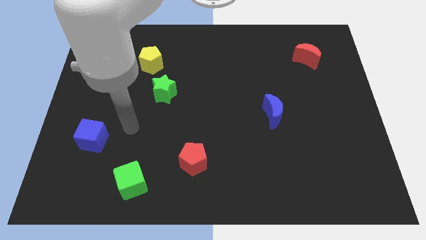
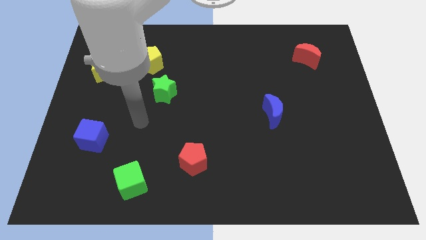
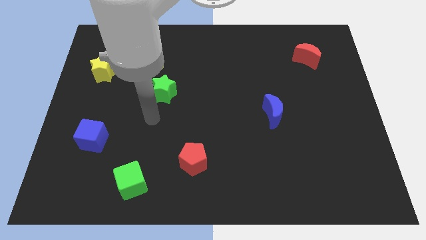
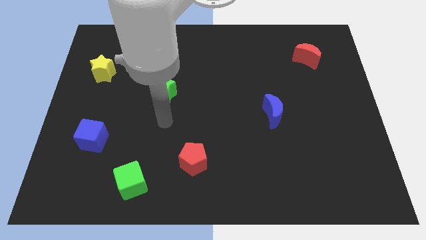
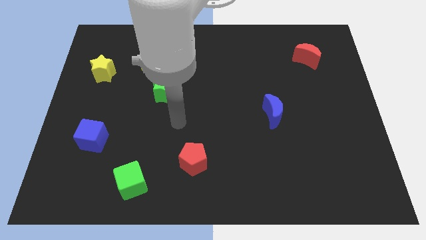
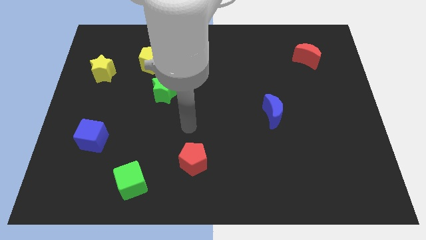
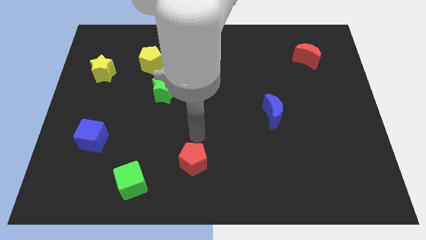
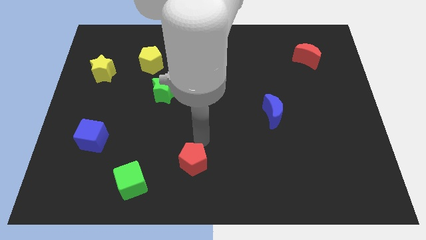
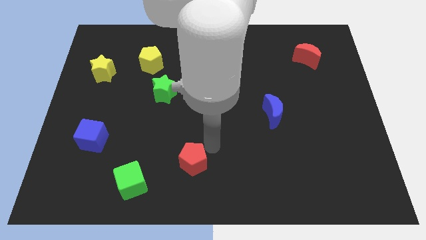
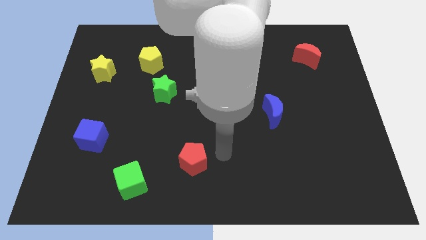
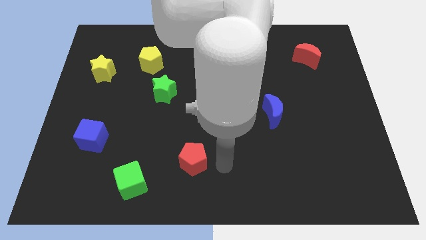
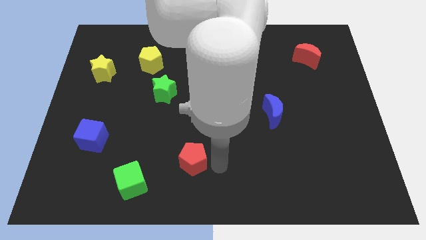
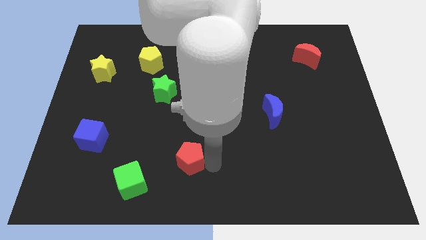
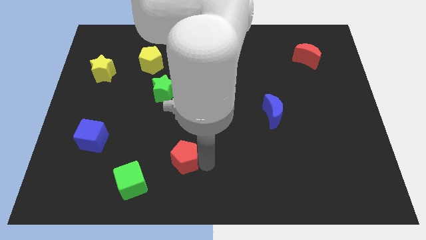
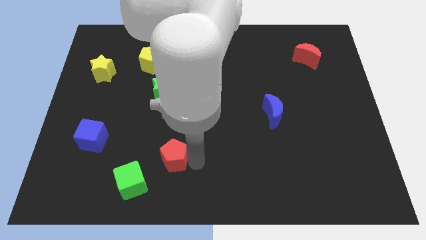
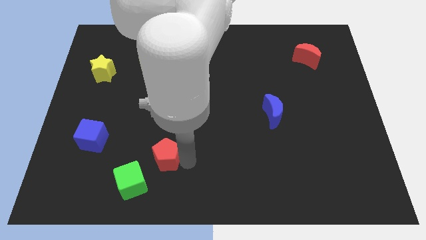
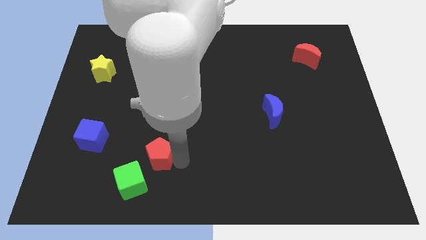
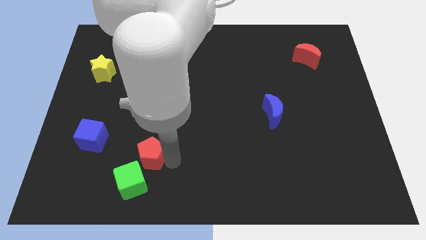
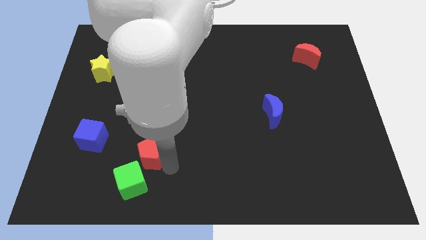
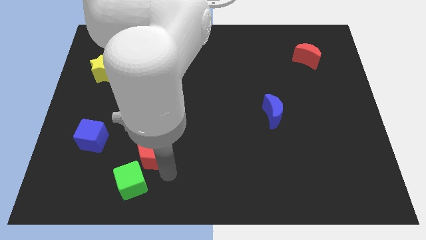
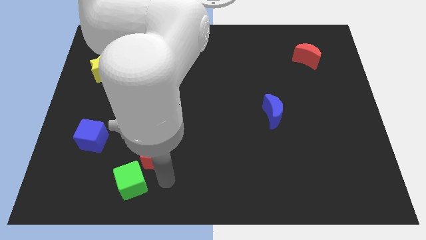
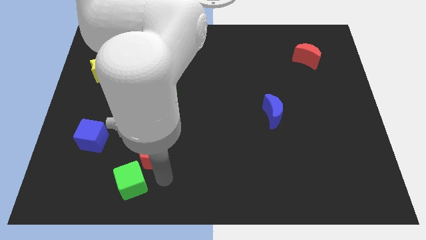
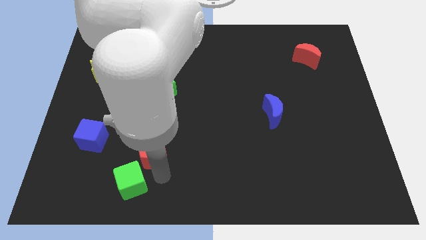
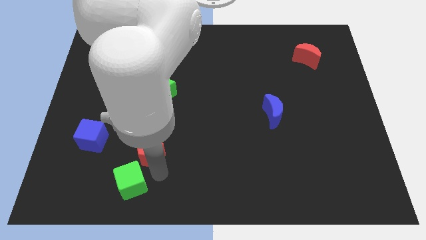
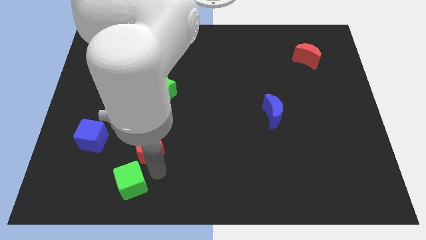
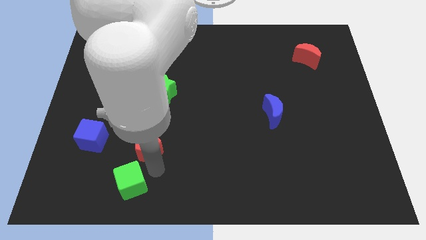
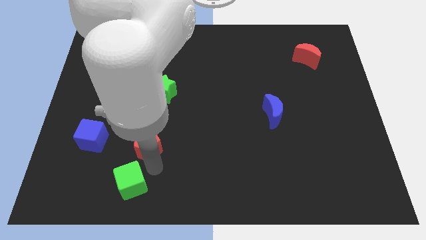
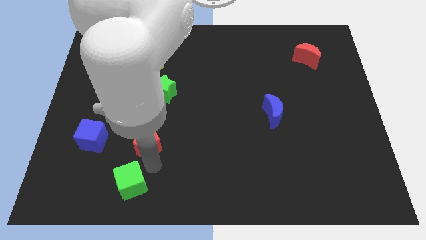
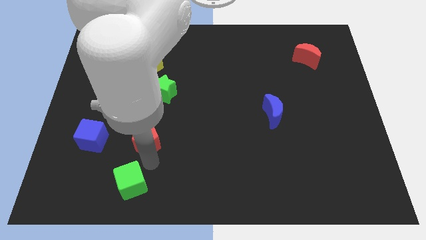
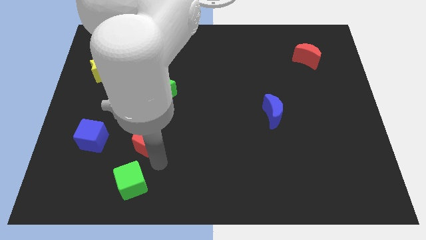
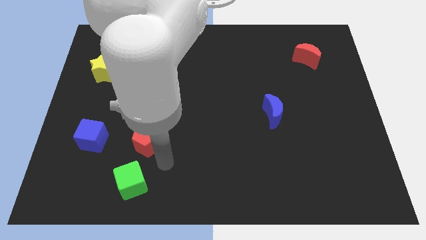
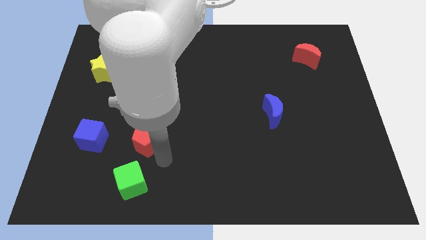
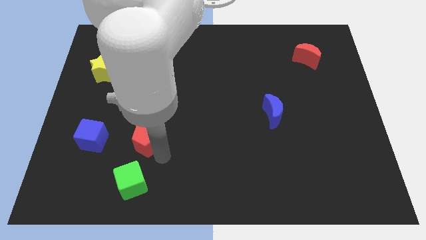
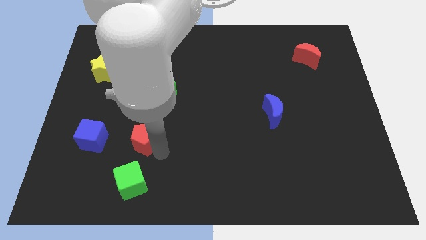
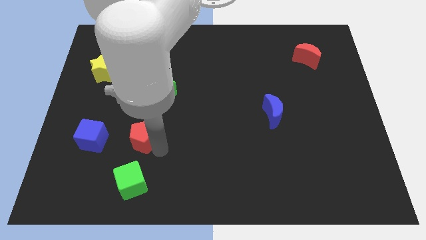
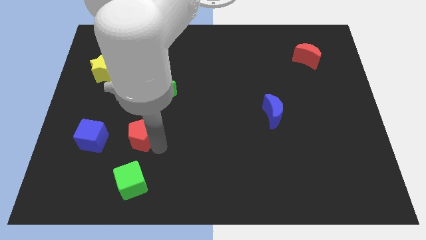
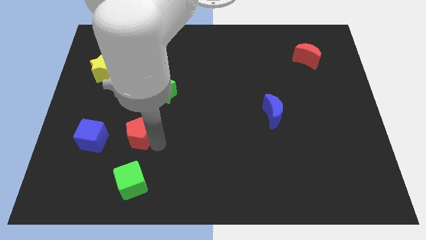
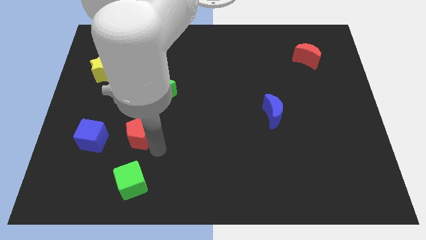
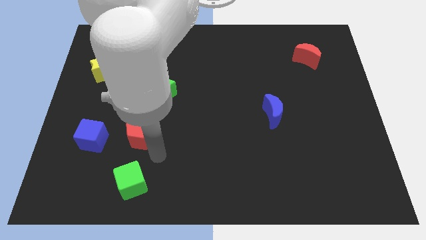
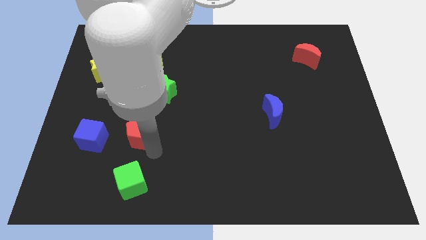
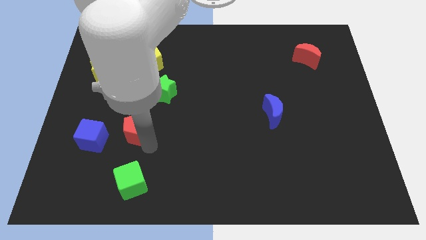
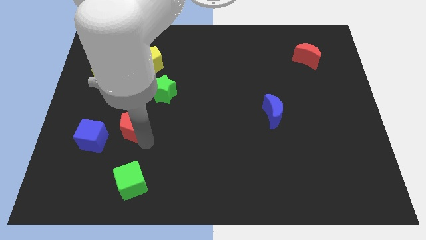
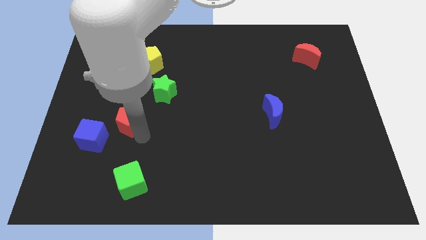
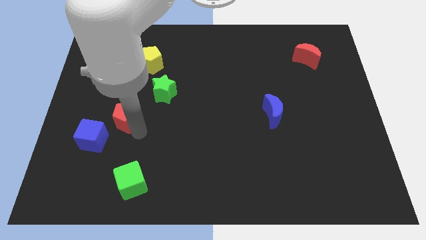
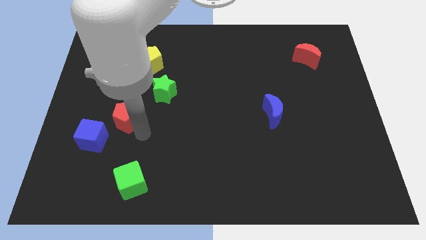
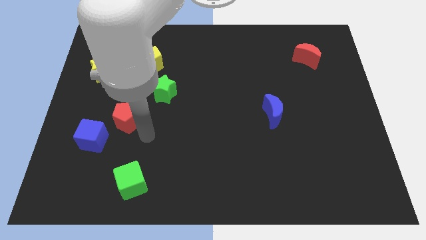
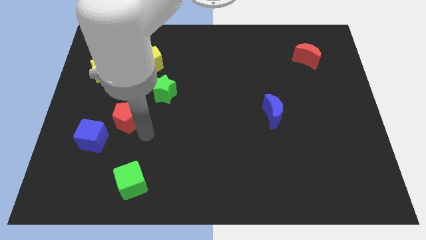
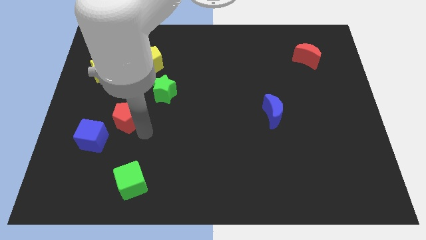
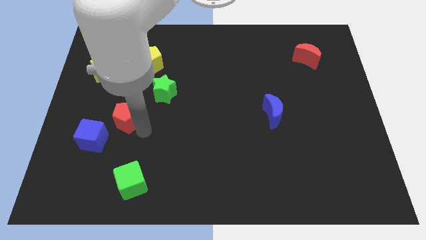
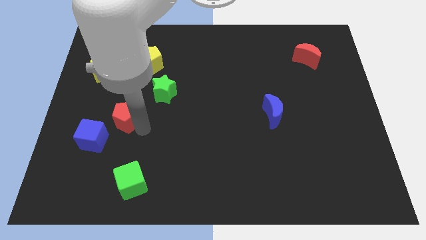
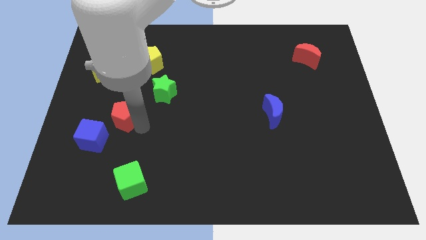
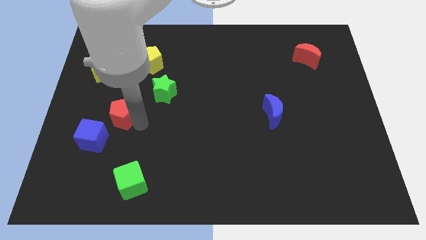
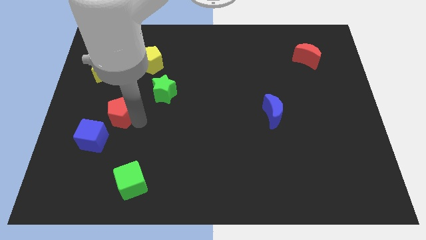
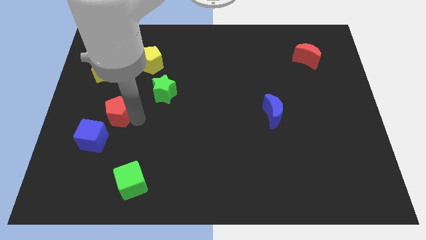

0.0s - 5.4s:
push the red pentagon to the top of the blue cube

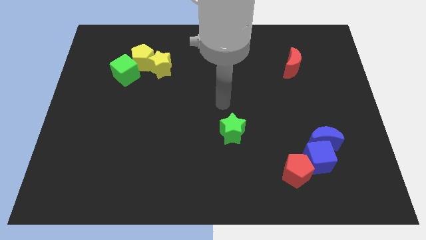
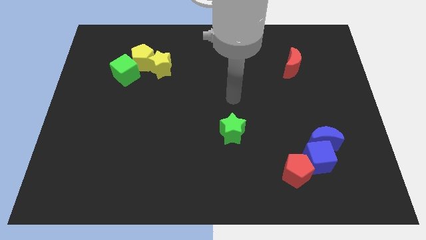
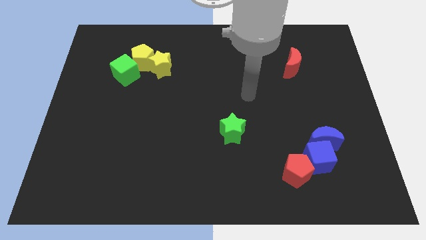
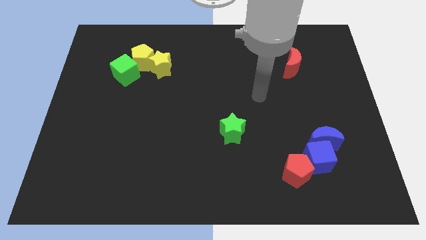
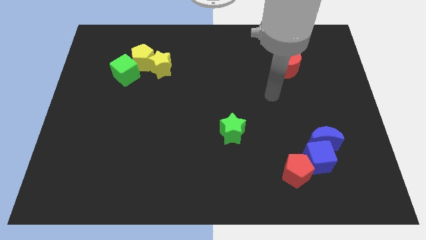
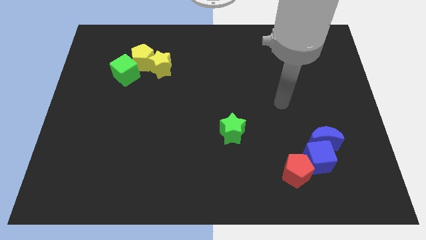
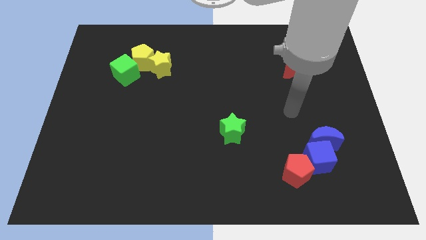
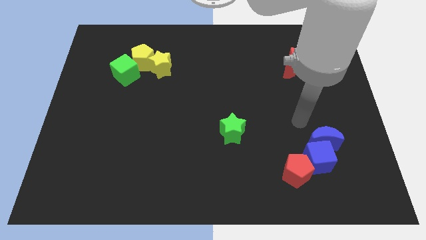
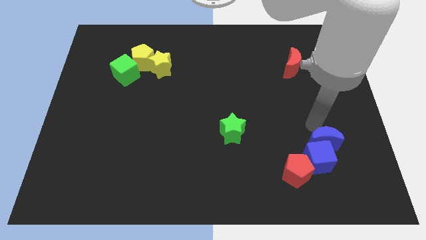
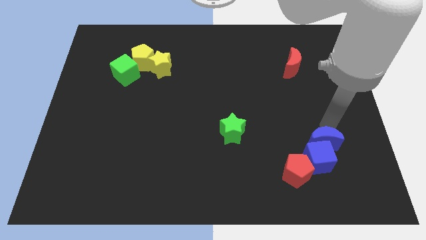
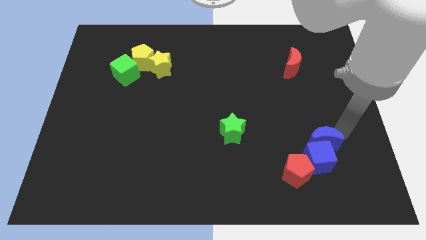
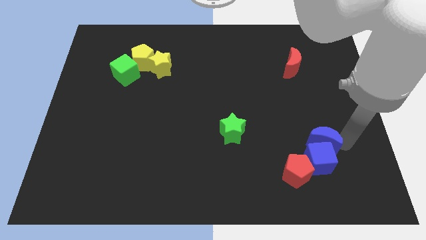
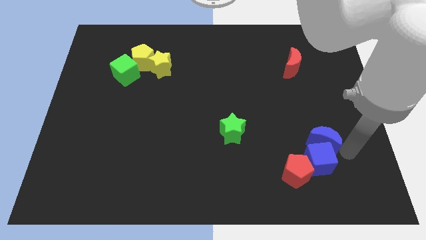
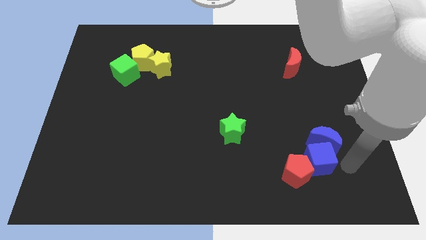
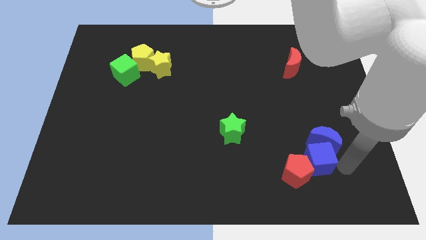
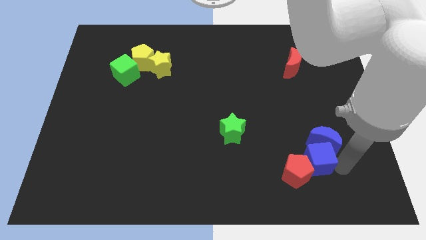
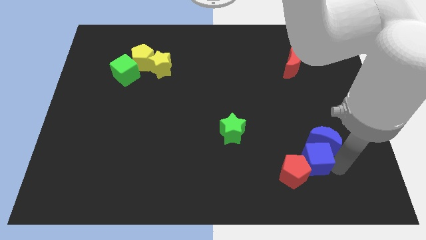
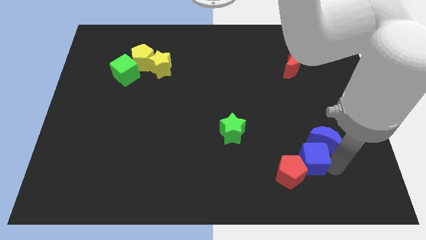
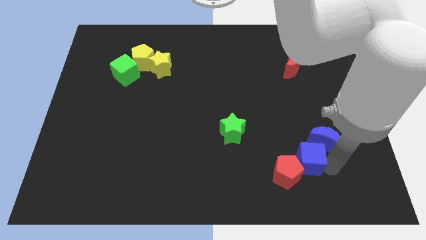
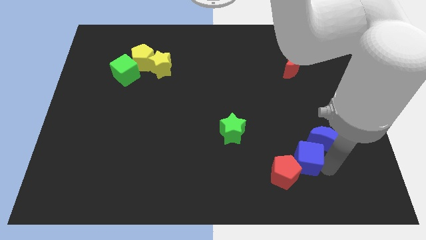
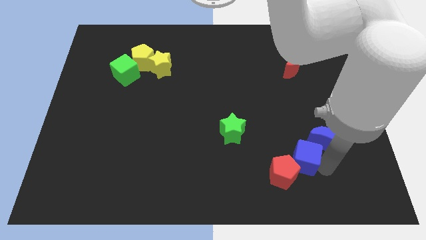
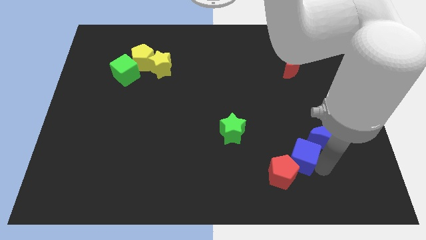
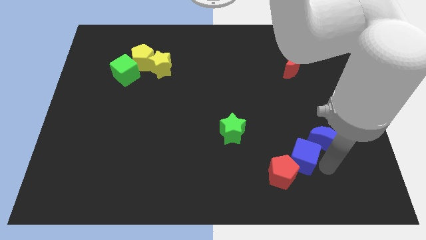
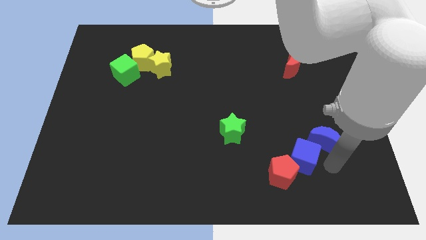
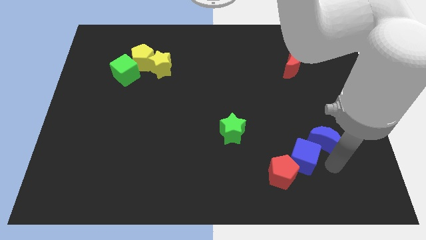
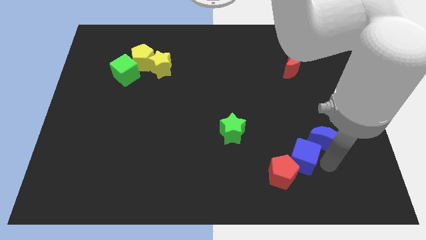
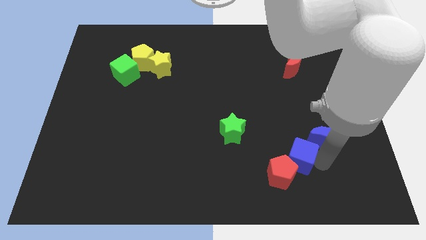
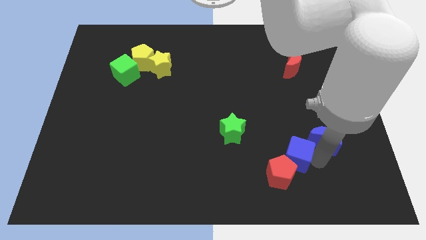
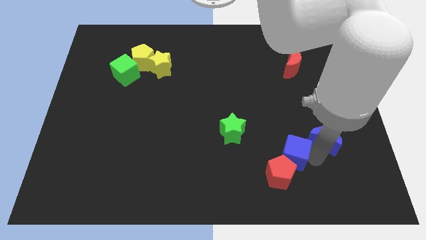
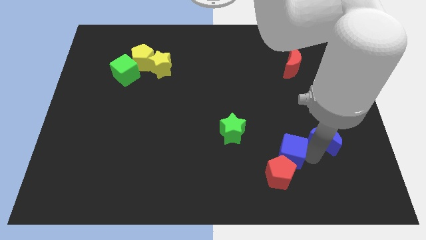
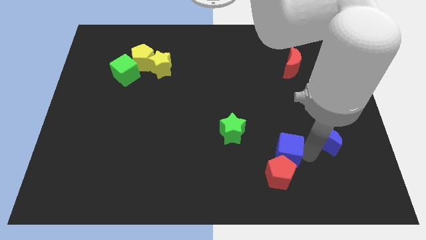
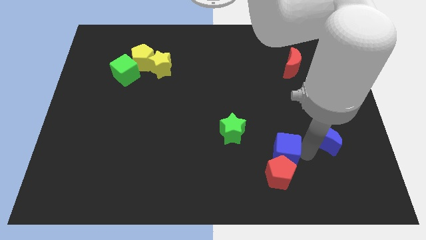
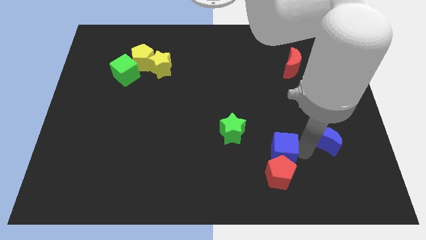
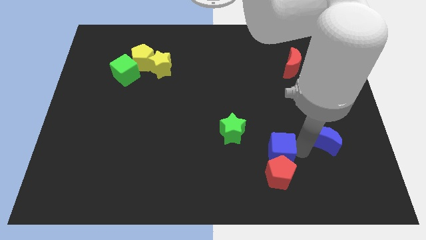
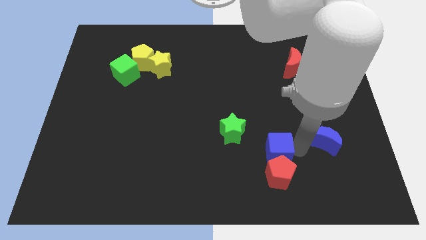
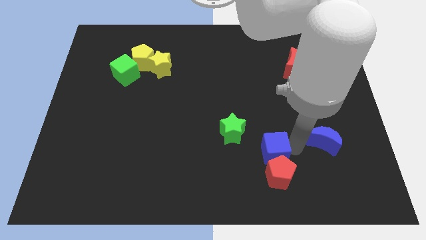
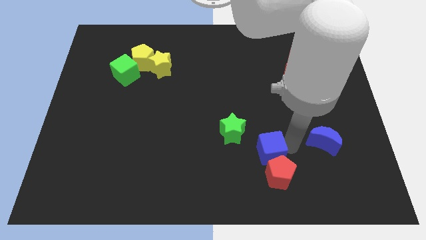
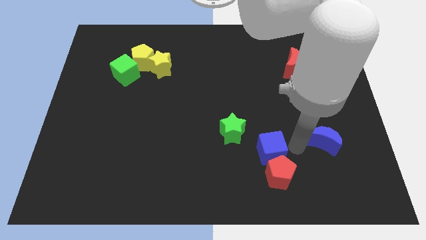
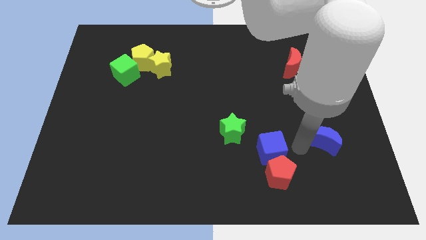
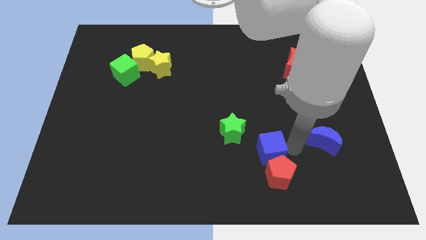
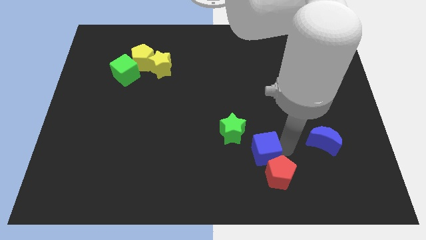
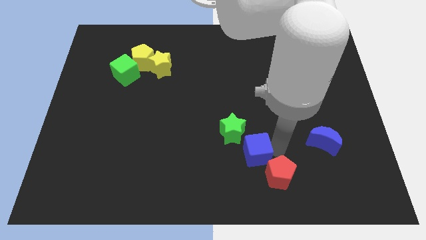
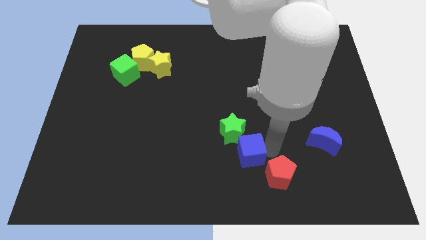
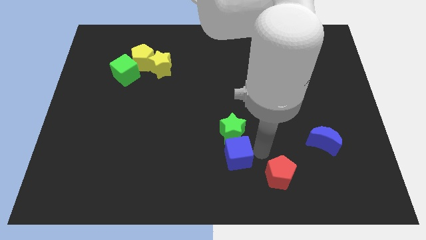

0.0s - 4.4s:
move the blue cube to the bottom left side of the green star
